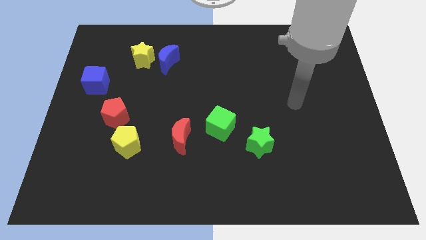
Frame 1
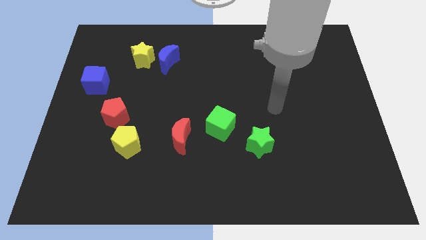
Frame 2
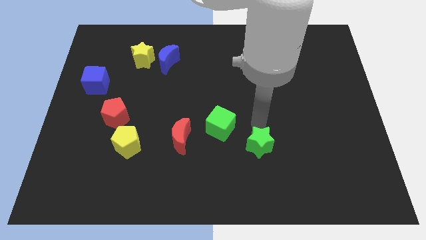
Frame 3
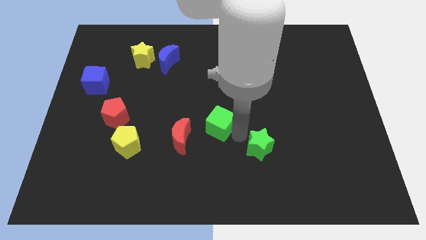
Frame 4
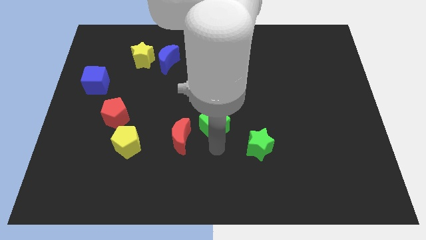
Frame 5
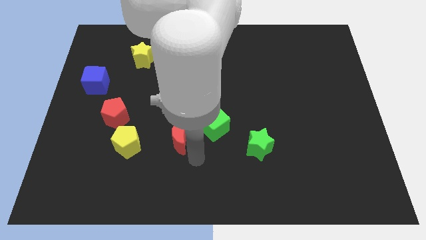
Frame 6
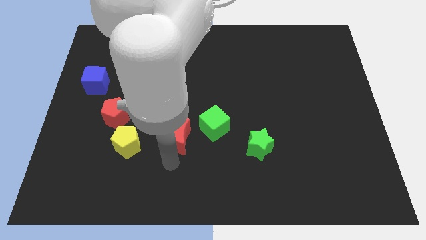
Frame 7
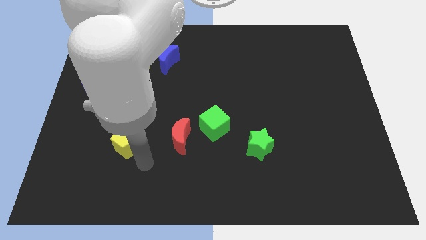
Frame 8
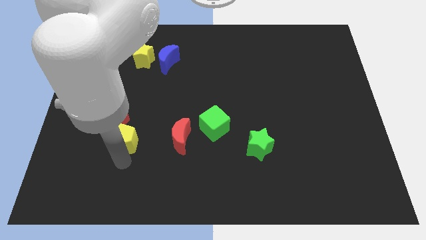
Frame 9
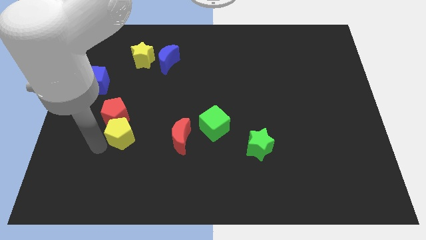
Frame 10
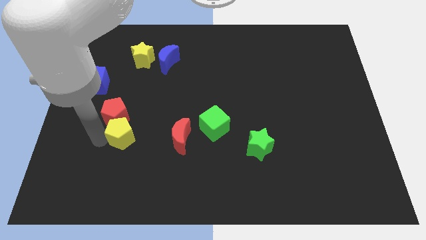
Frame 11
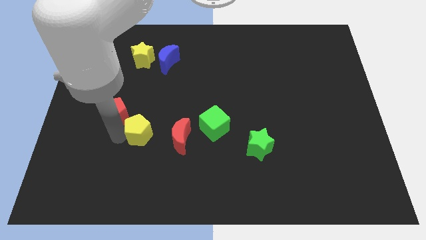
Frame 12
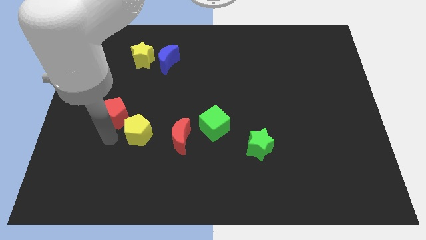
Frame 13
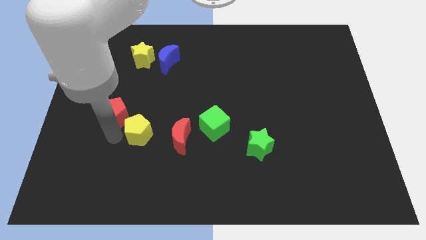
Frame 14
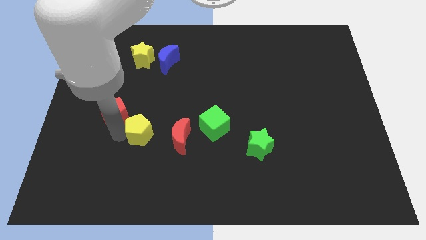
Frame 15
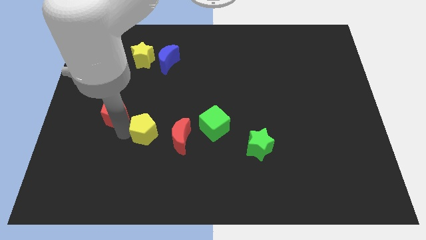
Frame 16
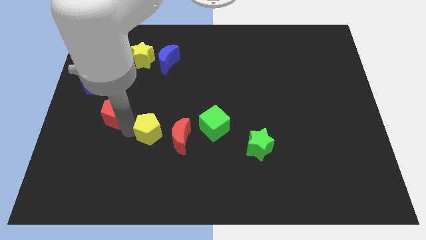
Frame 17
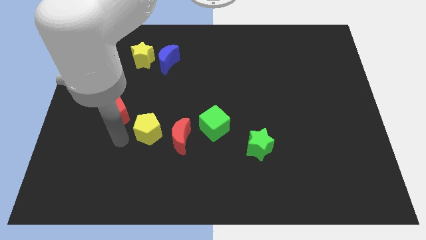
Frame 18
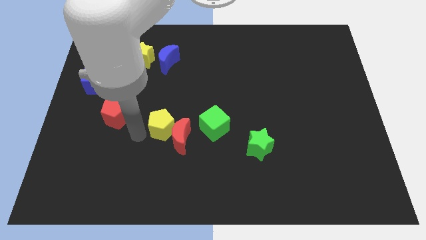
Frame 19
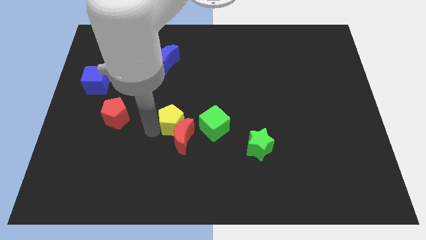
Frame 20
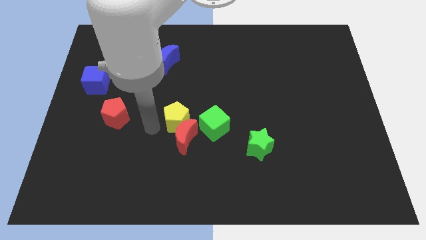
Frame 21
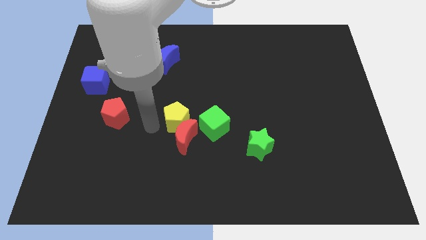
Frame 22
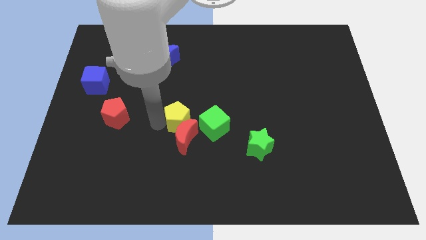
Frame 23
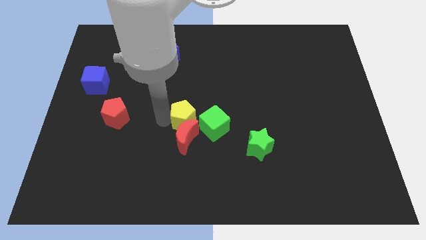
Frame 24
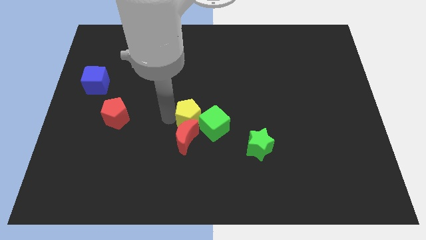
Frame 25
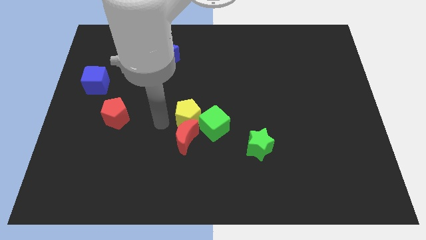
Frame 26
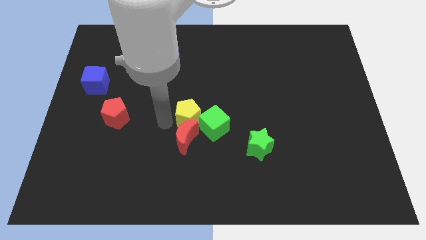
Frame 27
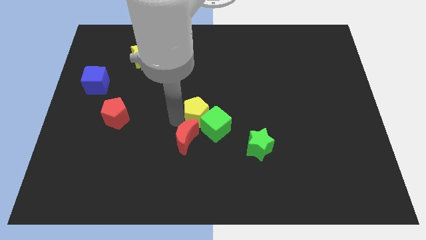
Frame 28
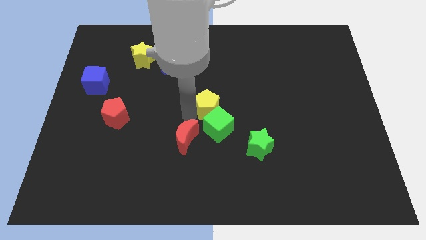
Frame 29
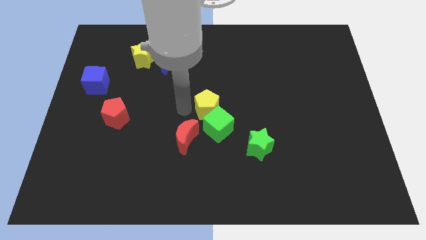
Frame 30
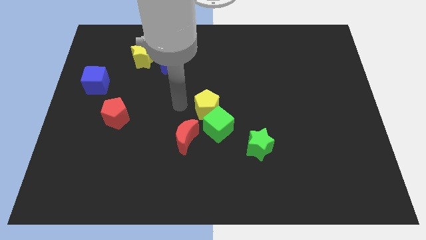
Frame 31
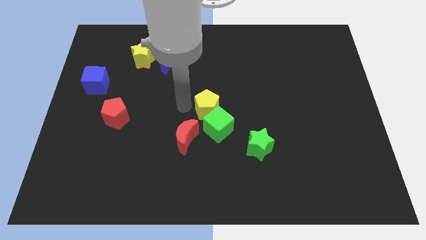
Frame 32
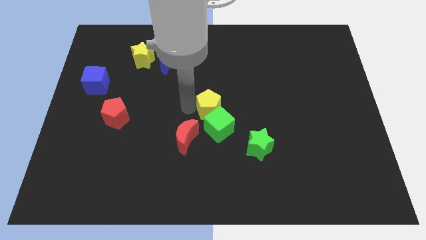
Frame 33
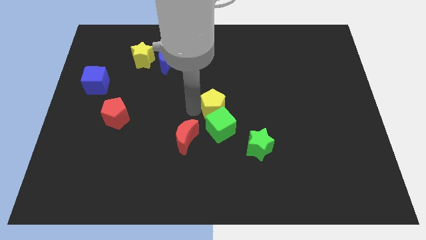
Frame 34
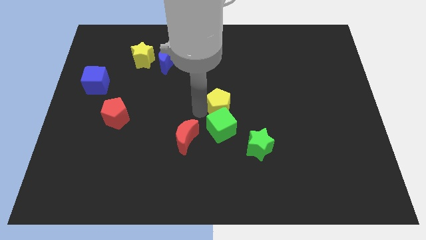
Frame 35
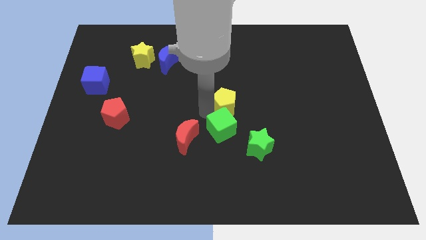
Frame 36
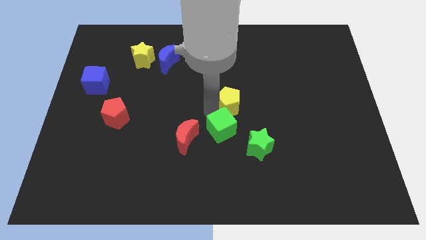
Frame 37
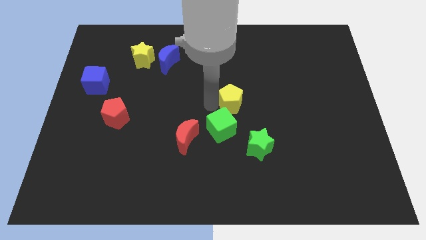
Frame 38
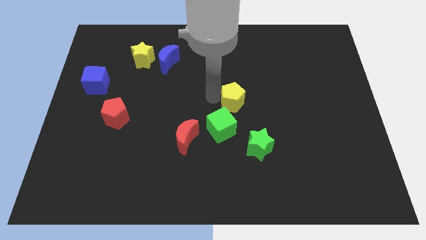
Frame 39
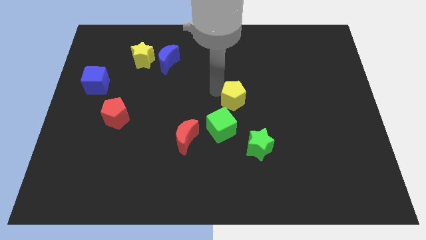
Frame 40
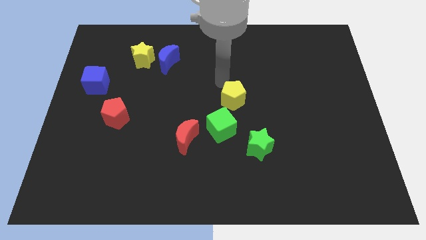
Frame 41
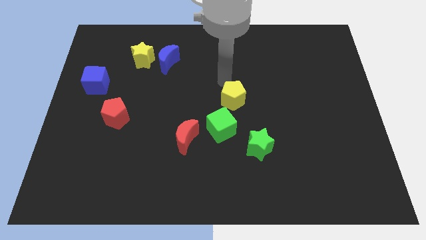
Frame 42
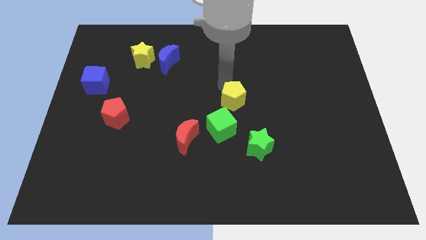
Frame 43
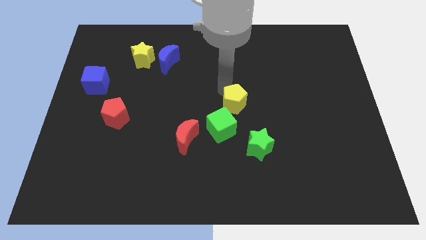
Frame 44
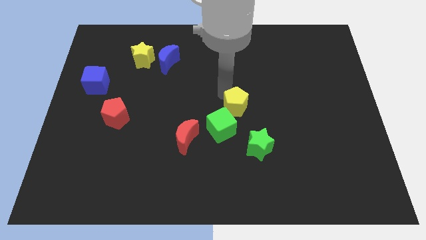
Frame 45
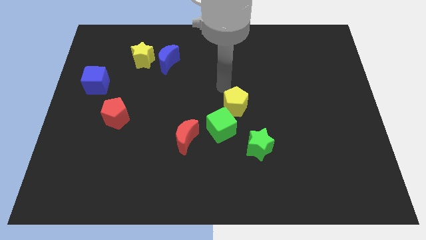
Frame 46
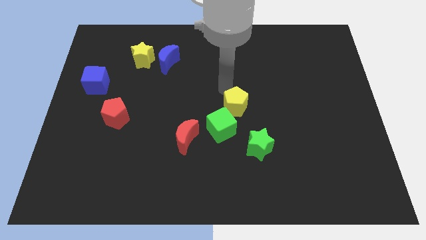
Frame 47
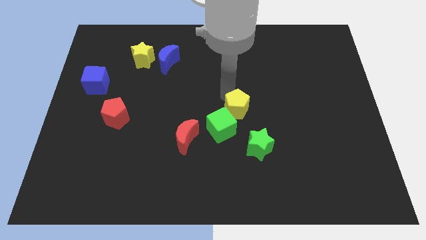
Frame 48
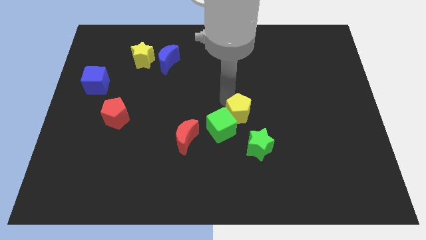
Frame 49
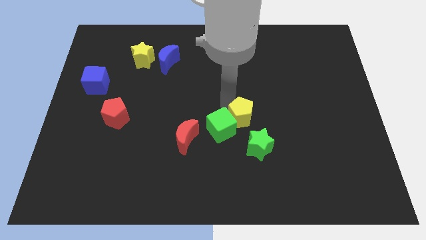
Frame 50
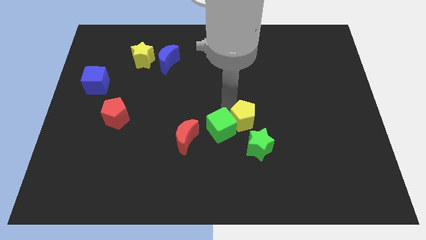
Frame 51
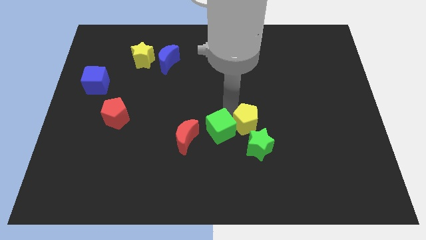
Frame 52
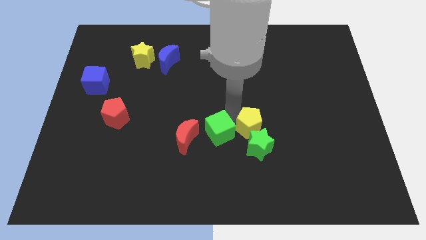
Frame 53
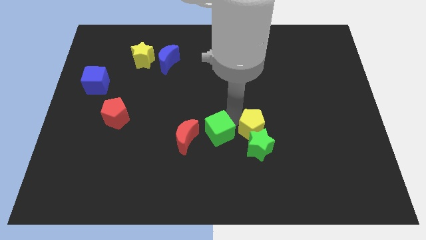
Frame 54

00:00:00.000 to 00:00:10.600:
put the yellow pentagon to the top right of the green star

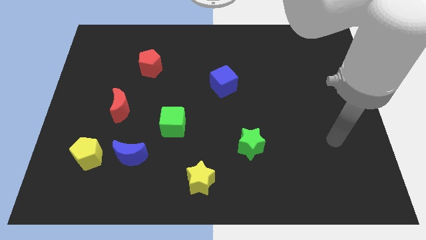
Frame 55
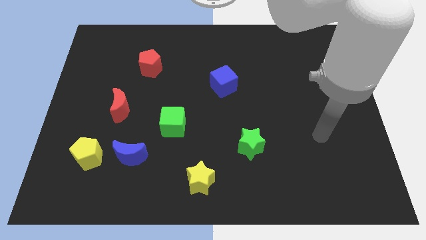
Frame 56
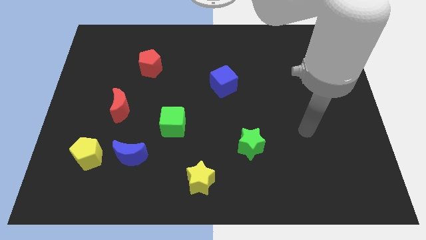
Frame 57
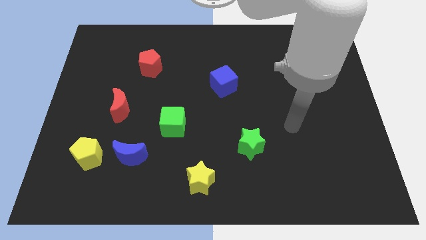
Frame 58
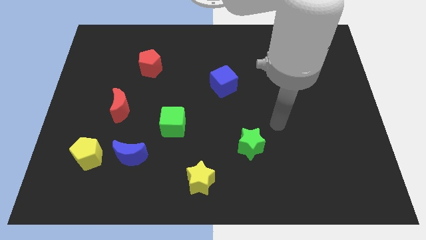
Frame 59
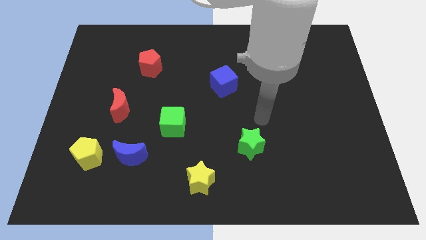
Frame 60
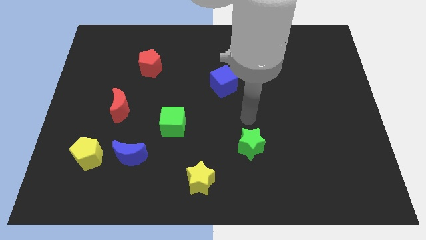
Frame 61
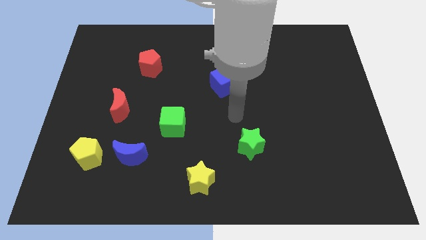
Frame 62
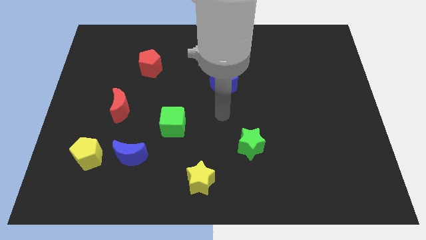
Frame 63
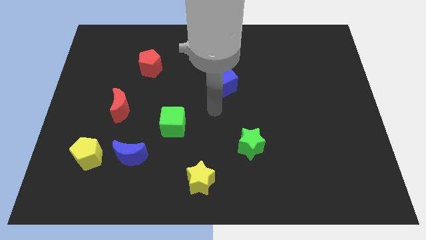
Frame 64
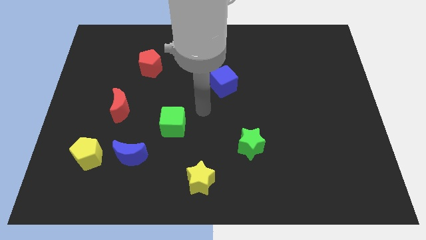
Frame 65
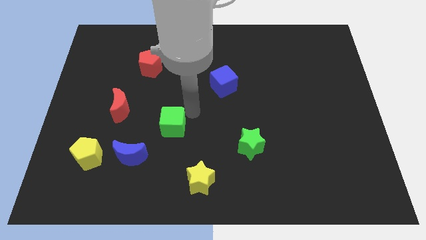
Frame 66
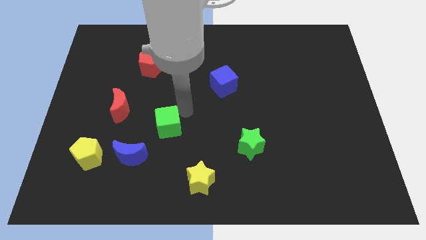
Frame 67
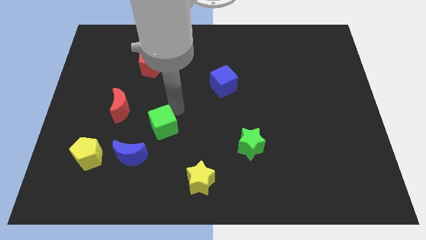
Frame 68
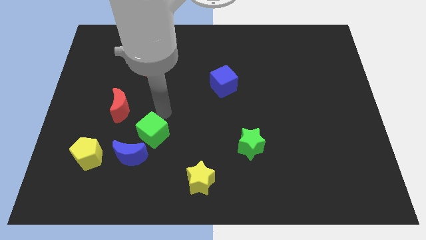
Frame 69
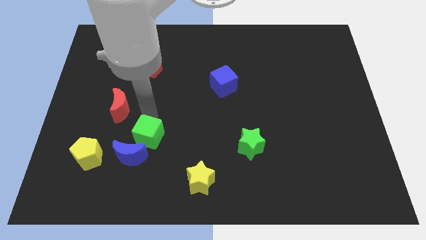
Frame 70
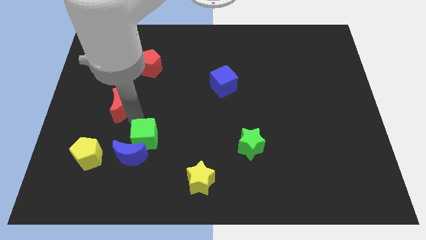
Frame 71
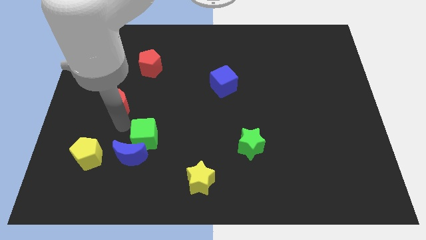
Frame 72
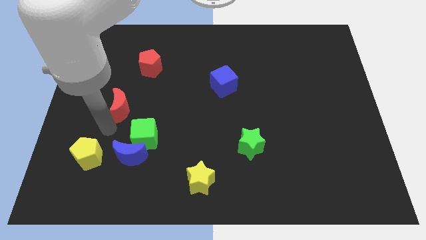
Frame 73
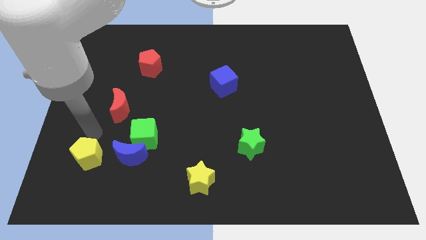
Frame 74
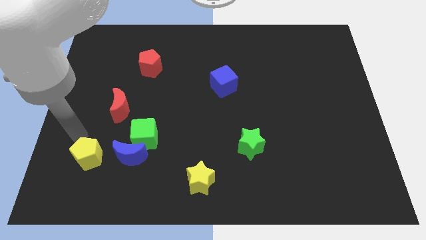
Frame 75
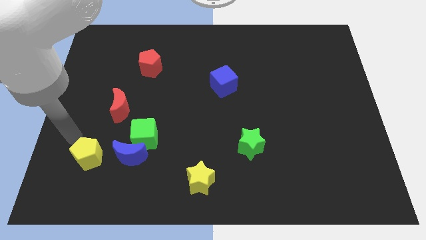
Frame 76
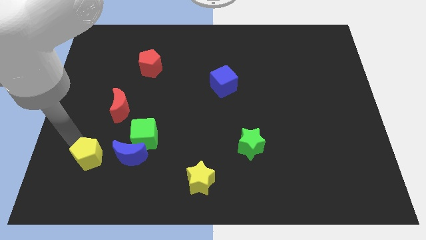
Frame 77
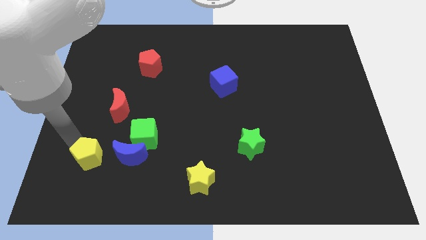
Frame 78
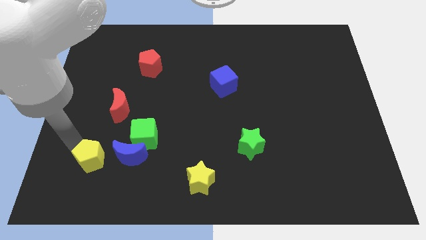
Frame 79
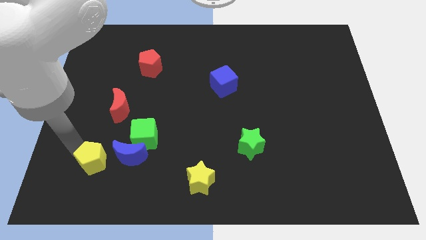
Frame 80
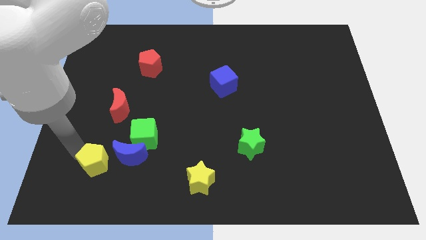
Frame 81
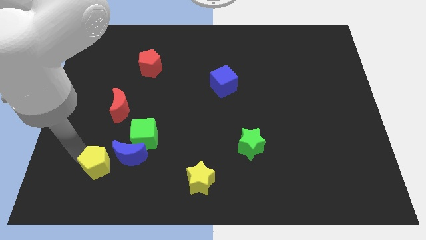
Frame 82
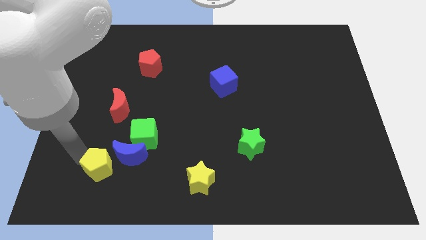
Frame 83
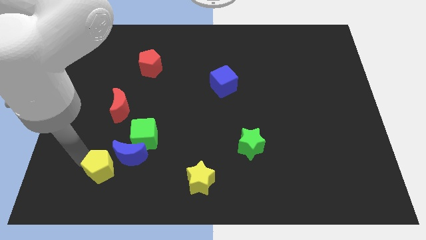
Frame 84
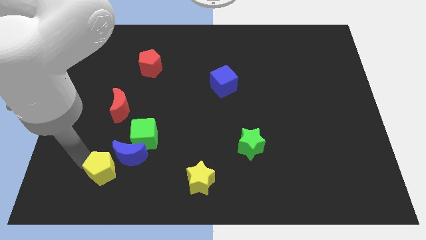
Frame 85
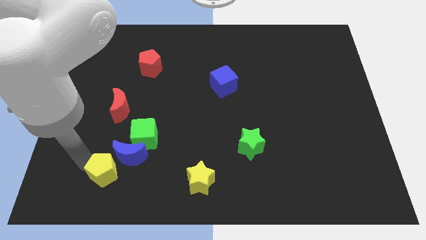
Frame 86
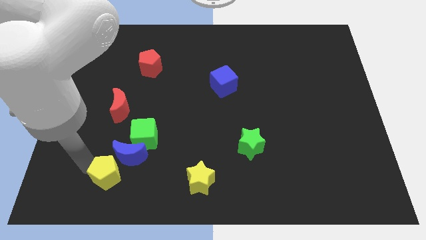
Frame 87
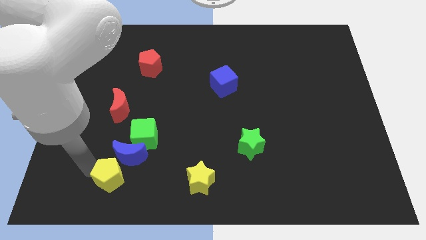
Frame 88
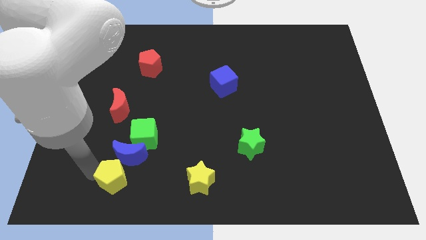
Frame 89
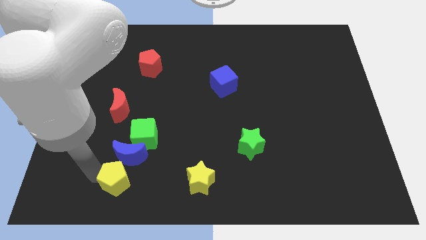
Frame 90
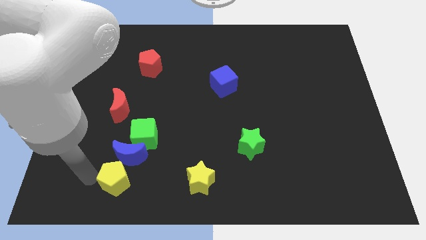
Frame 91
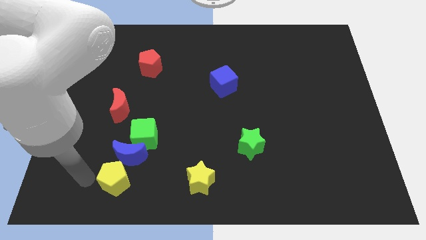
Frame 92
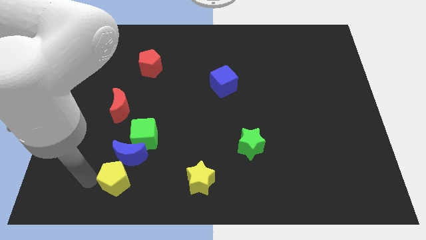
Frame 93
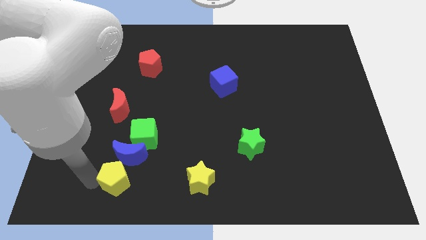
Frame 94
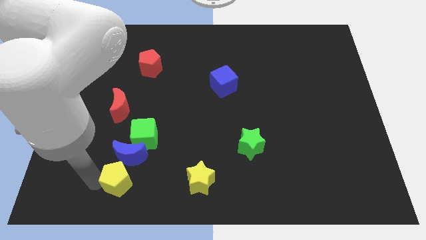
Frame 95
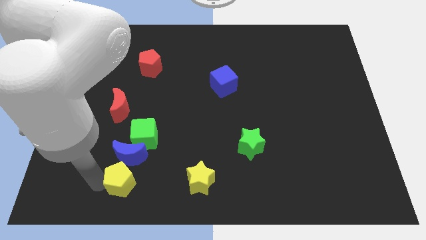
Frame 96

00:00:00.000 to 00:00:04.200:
slide the yellow pentagon left of the yellow star
